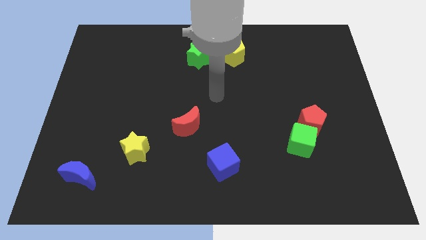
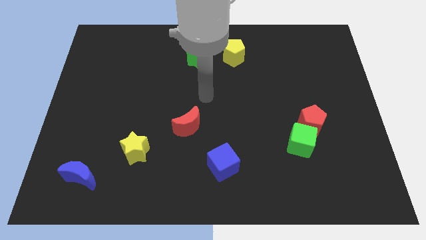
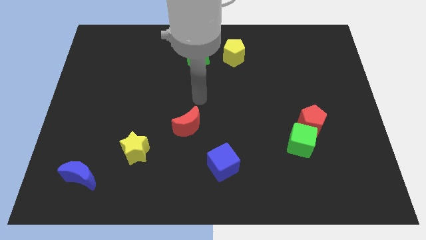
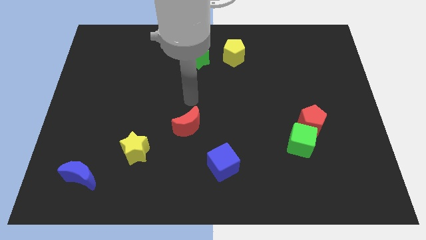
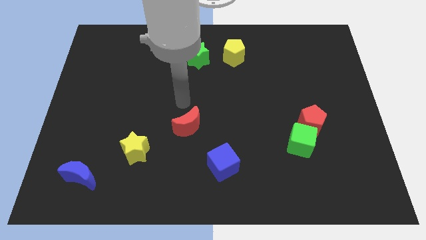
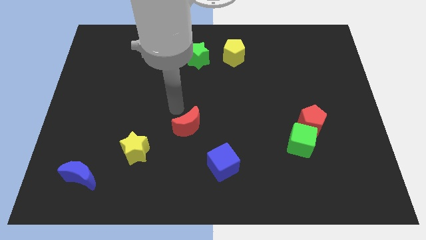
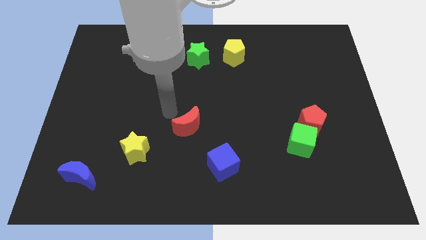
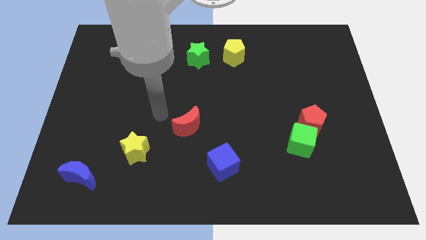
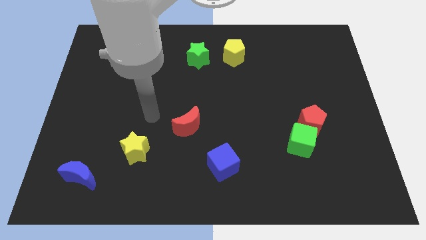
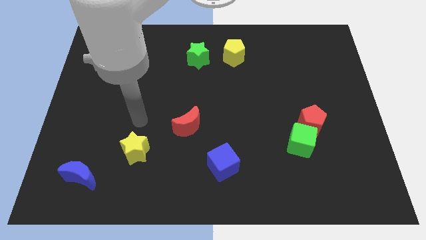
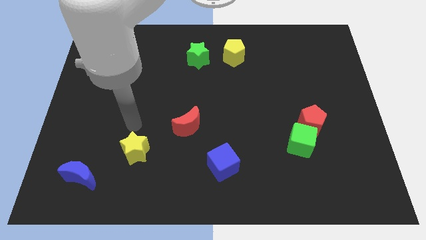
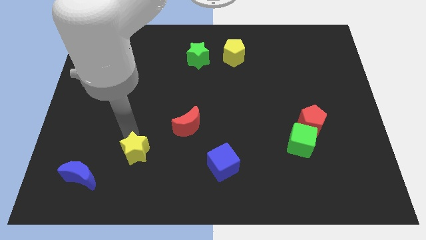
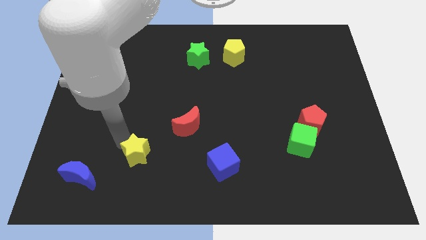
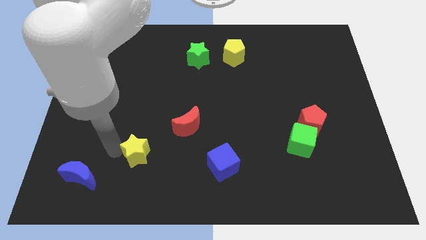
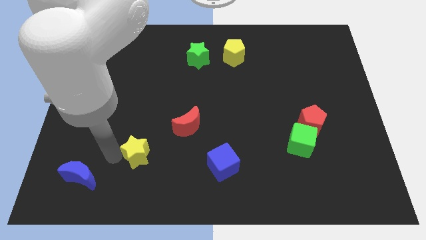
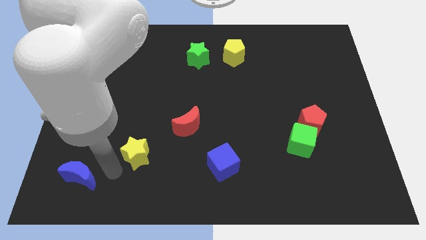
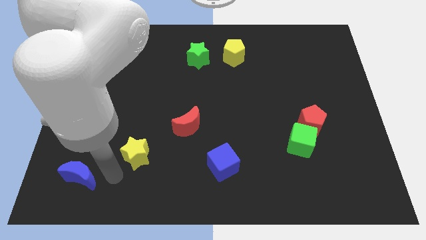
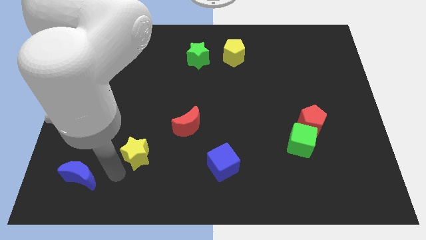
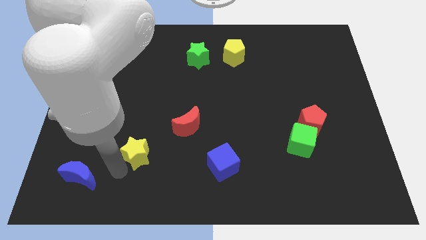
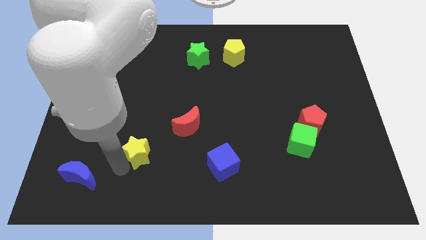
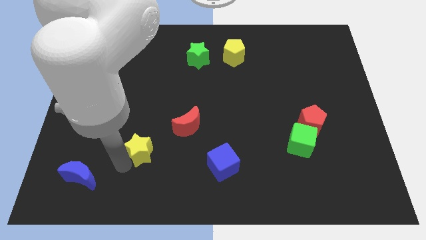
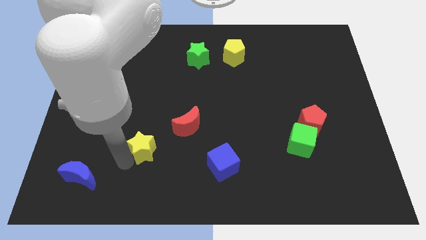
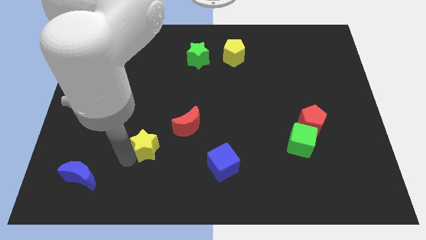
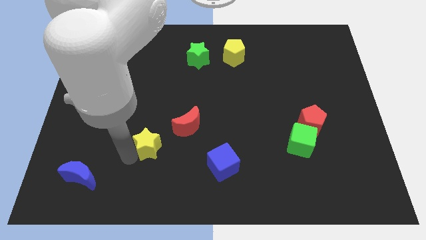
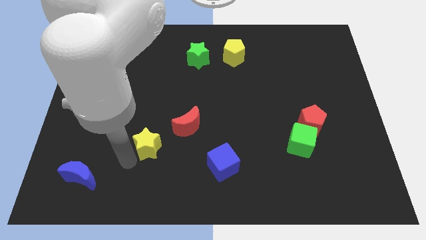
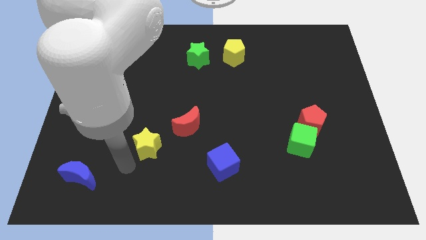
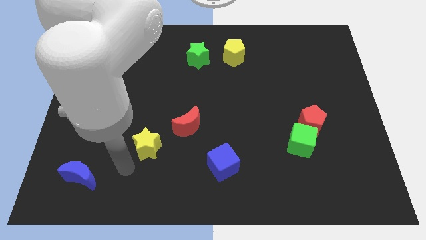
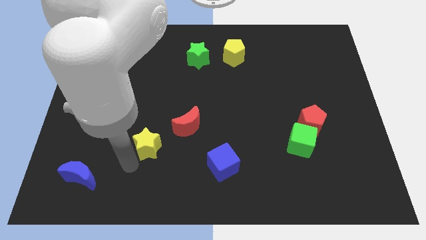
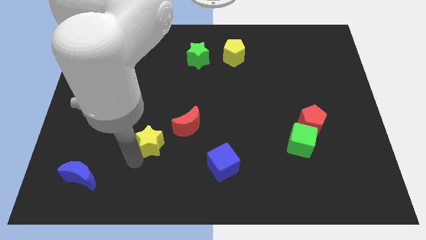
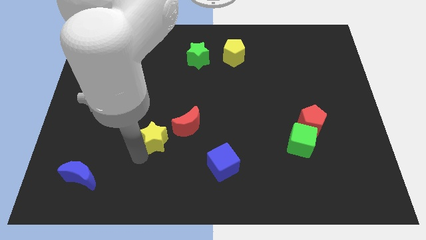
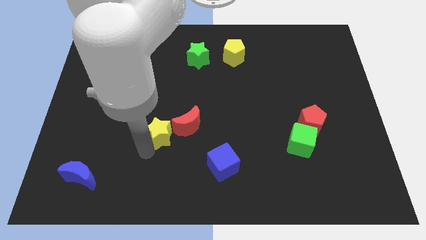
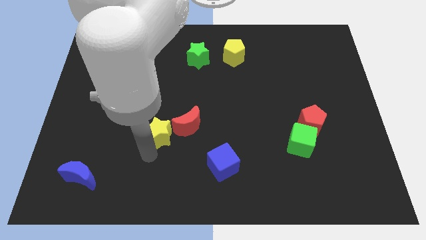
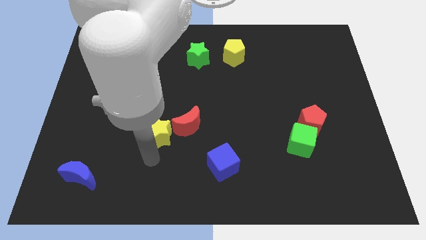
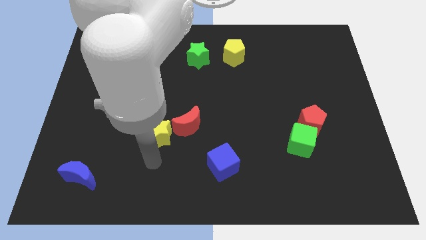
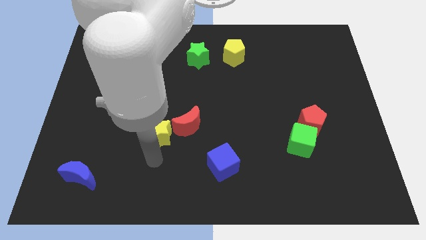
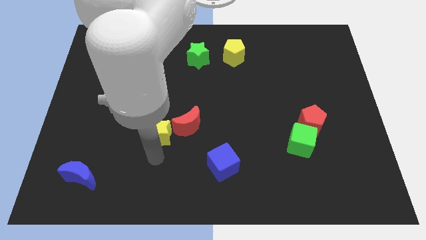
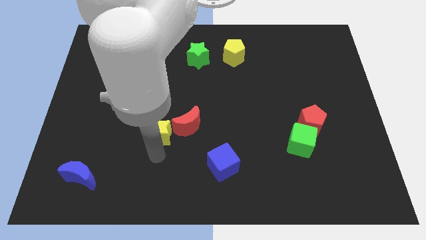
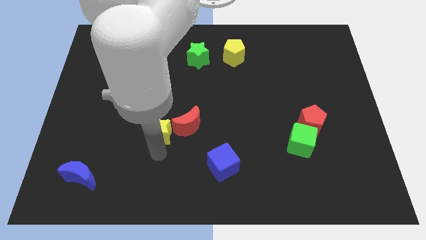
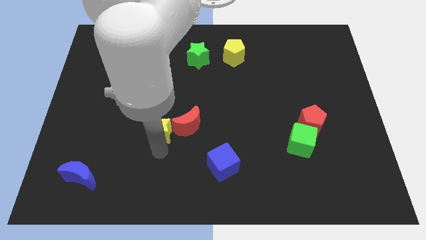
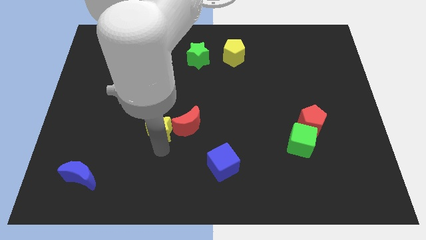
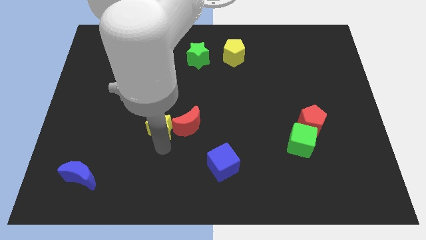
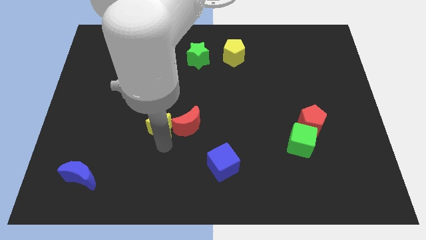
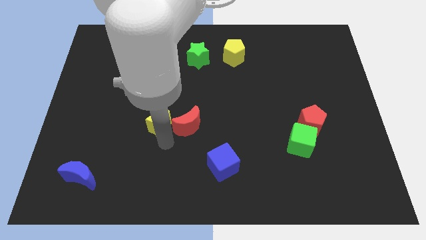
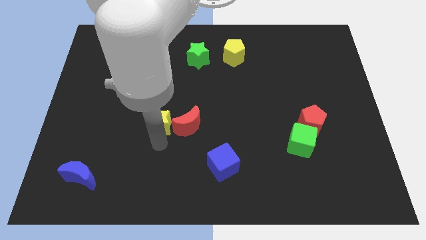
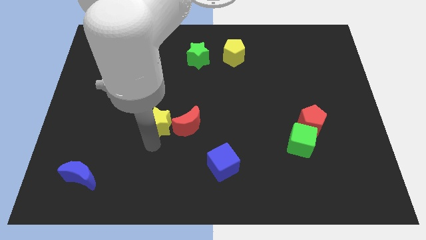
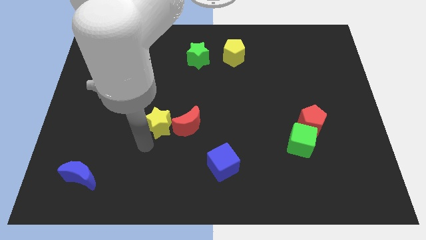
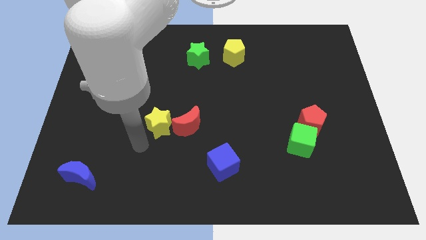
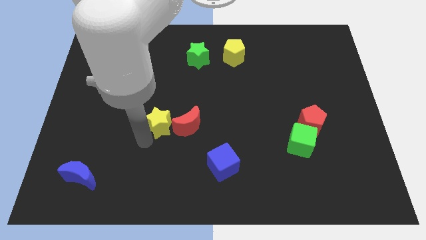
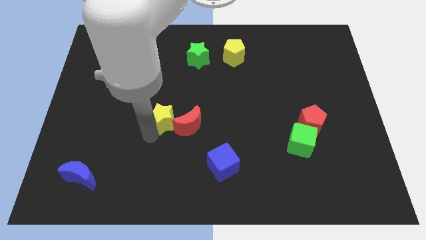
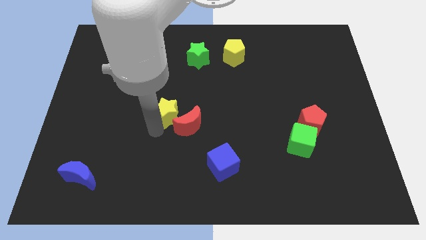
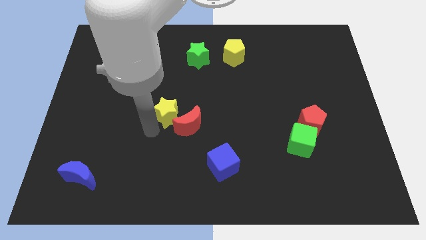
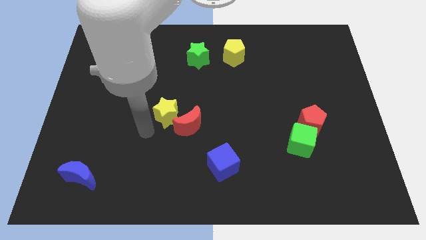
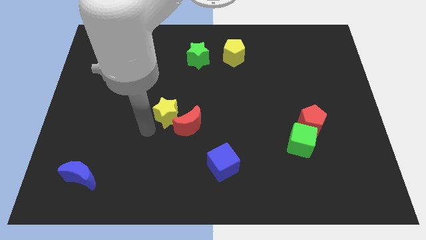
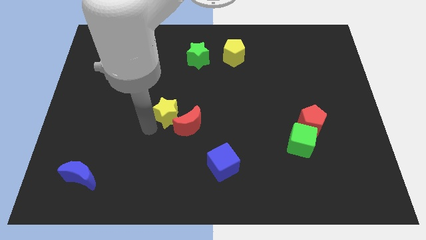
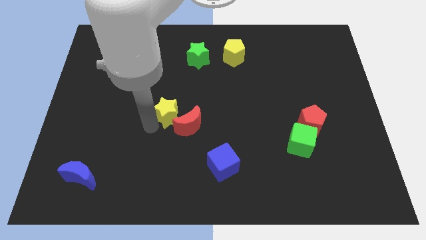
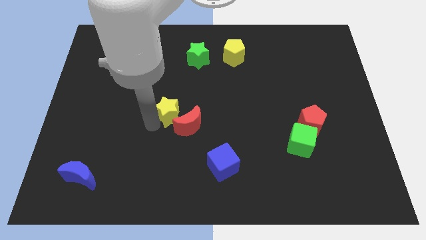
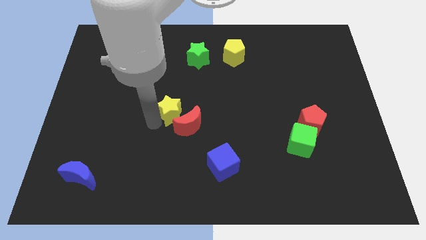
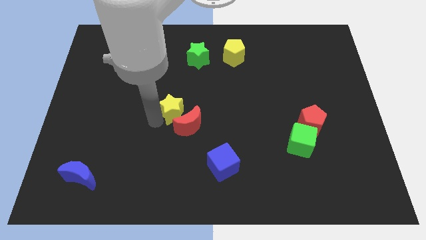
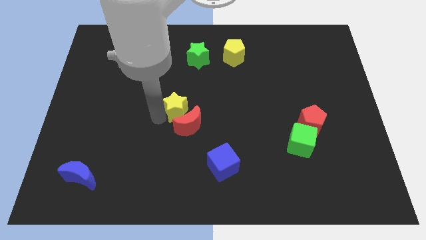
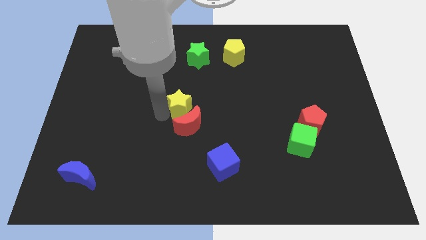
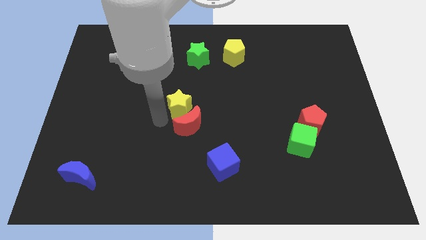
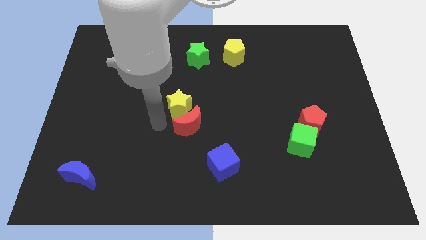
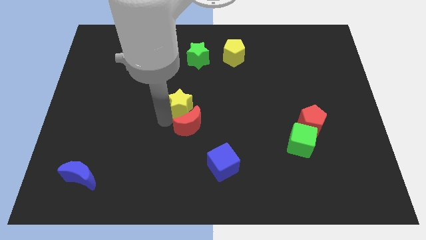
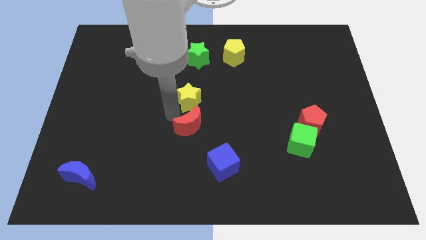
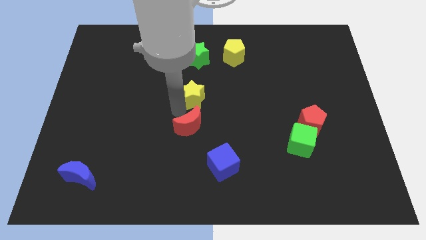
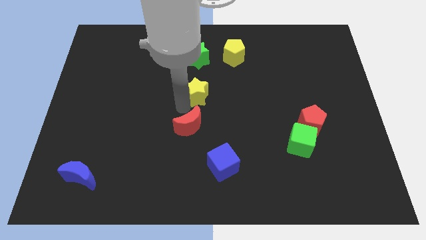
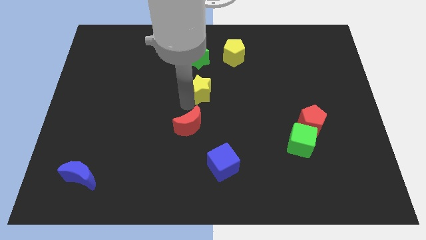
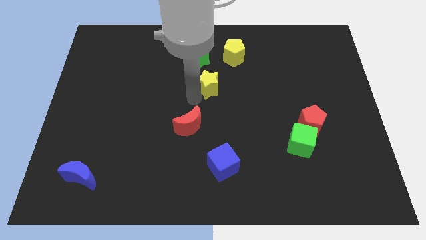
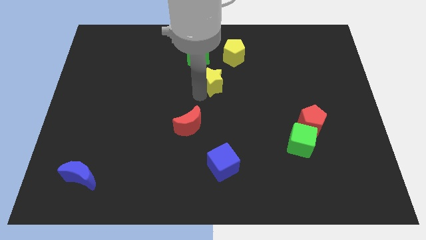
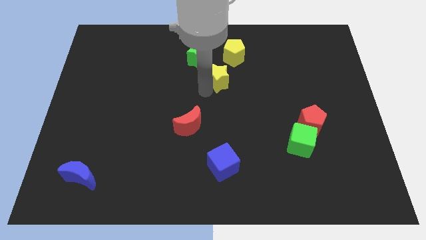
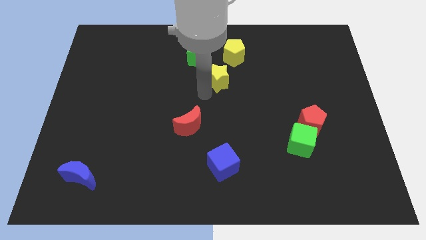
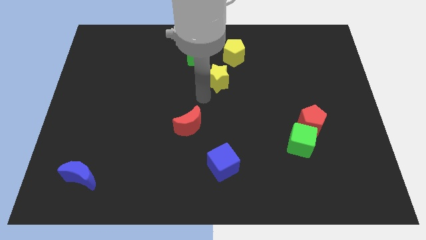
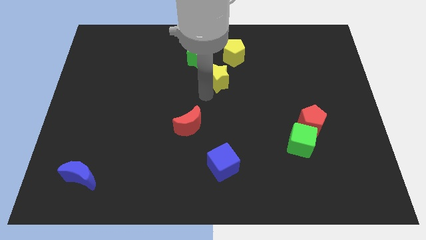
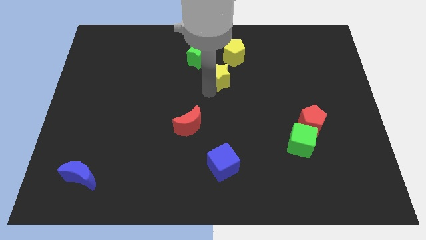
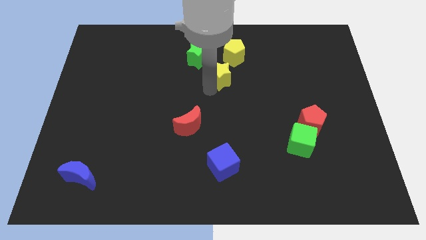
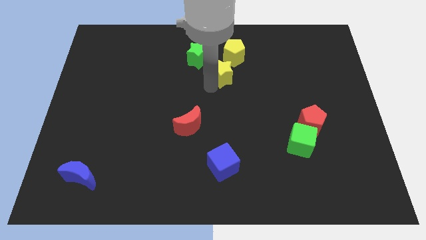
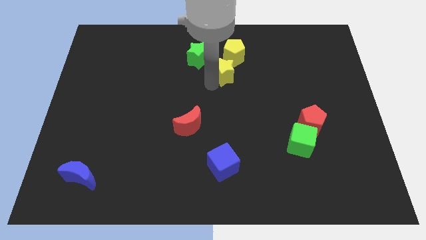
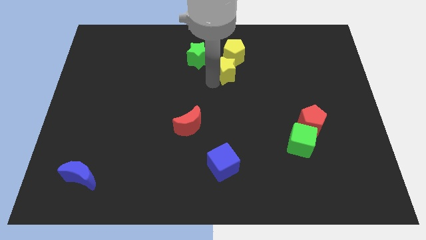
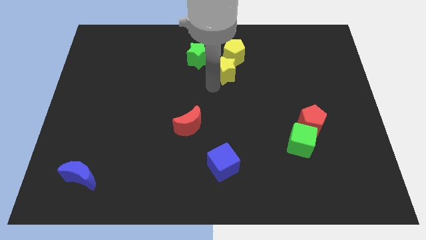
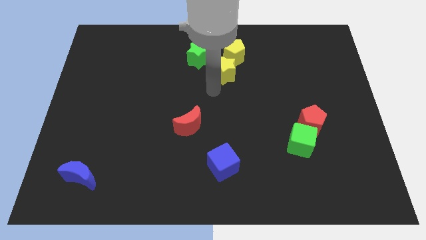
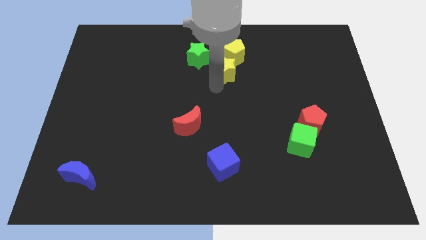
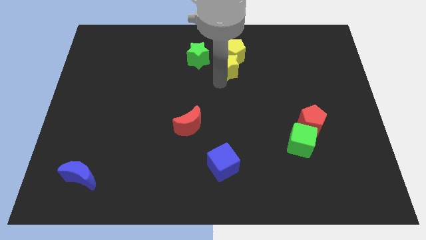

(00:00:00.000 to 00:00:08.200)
push the yellow star just right of the green star
